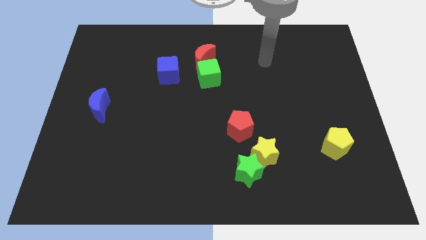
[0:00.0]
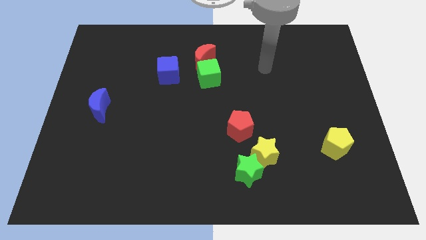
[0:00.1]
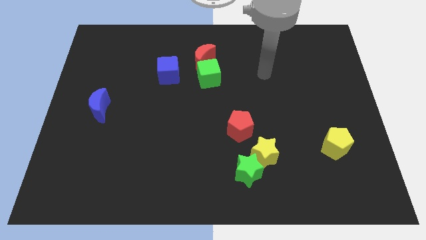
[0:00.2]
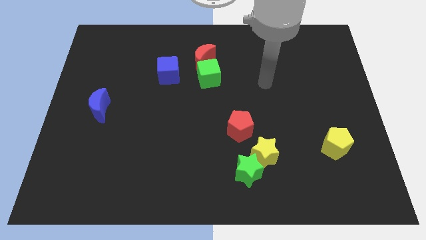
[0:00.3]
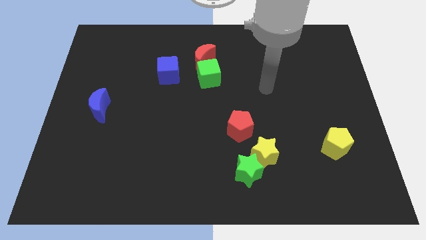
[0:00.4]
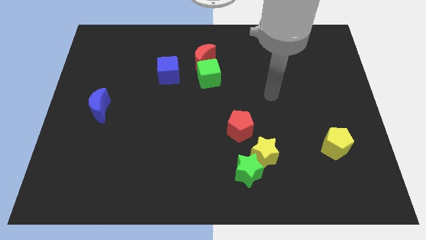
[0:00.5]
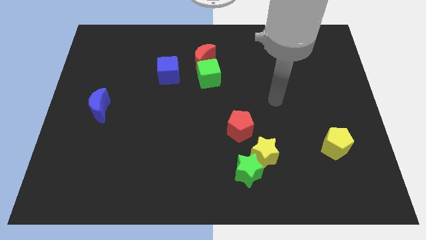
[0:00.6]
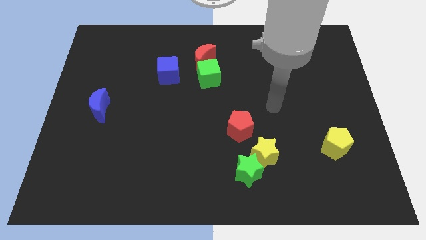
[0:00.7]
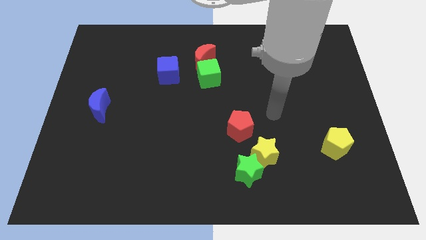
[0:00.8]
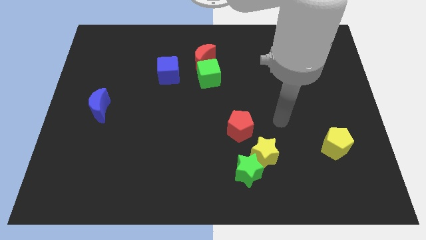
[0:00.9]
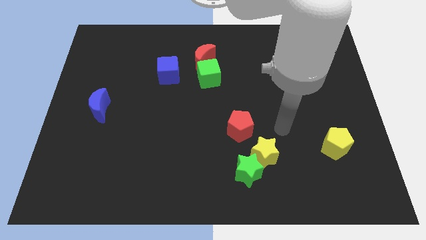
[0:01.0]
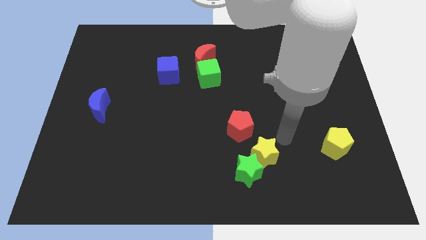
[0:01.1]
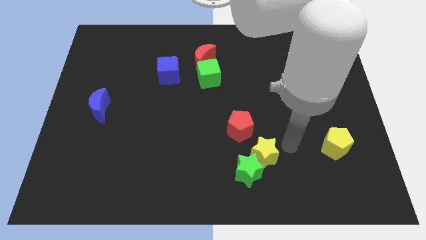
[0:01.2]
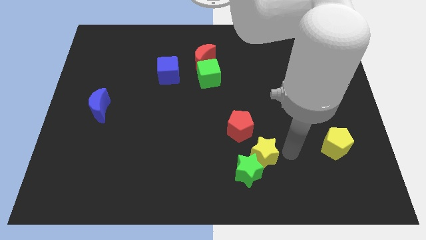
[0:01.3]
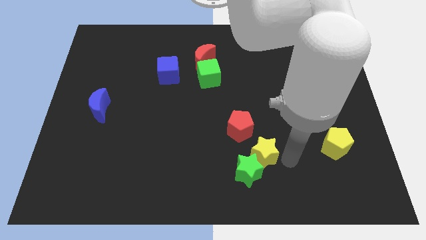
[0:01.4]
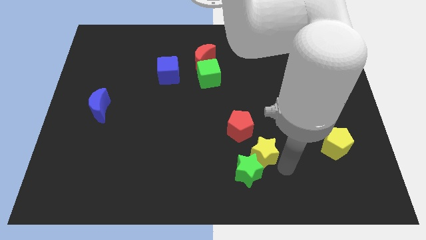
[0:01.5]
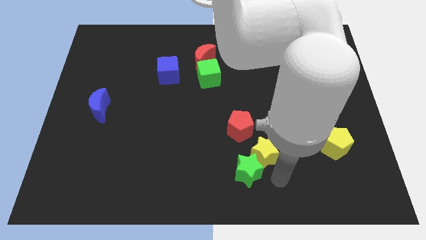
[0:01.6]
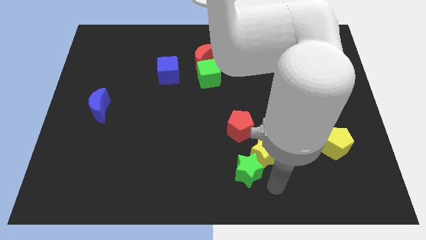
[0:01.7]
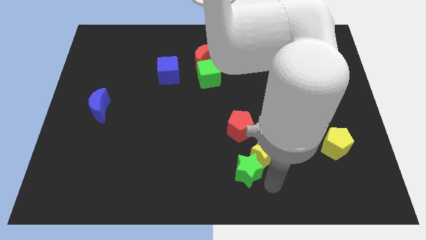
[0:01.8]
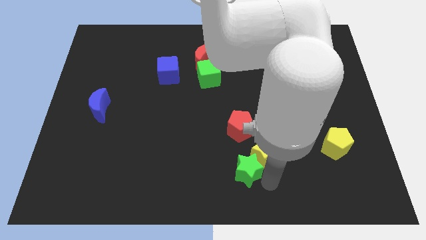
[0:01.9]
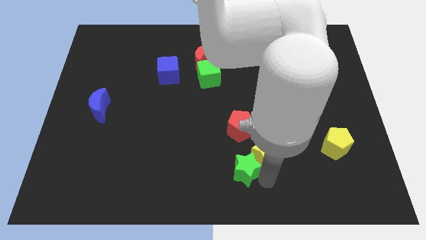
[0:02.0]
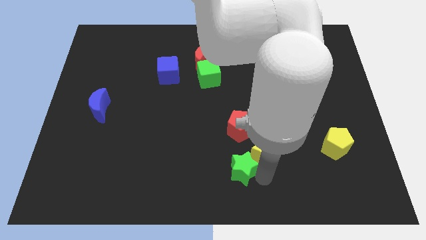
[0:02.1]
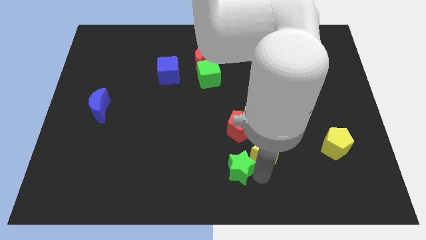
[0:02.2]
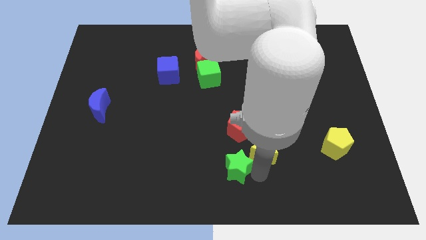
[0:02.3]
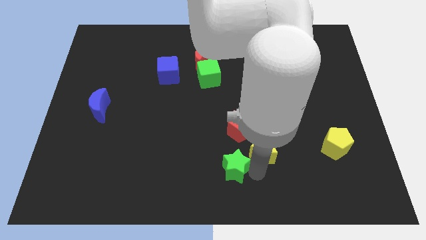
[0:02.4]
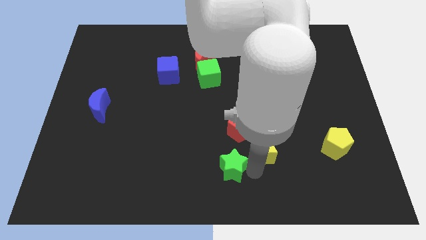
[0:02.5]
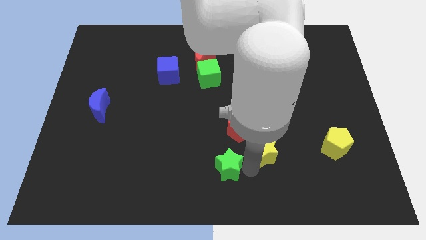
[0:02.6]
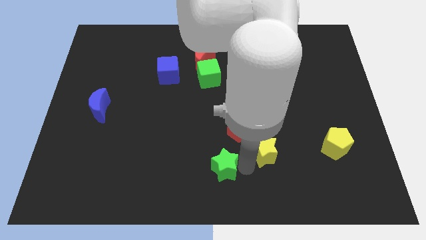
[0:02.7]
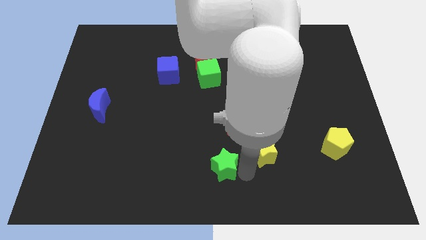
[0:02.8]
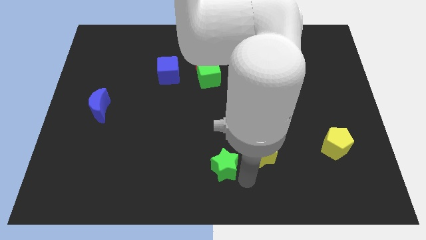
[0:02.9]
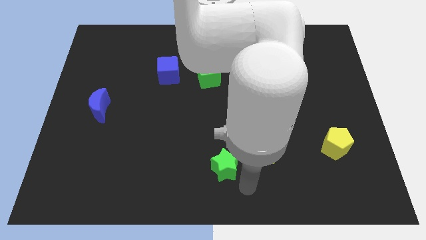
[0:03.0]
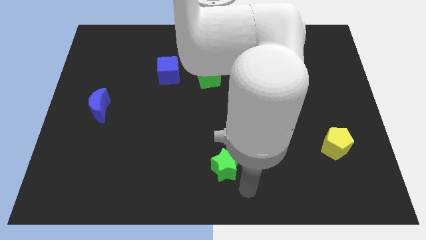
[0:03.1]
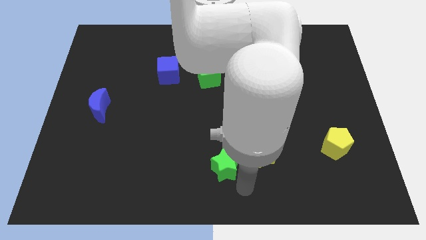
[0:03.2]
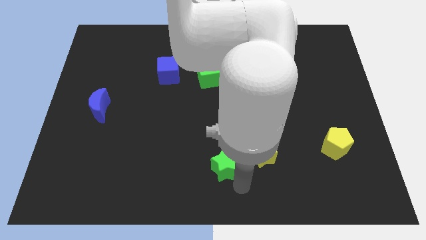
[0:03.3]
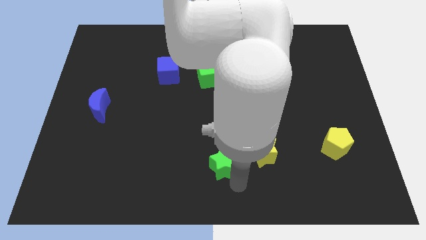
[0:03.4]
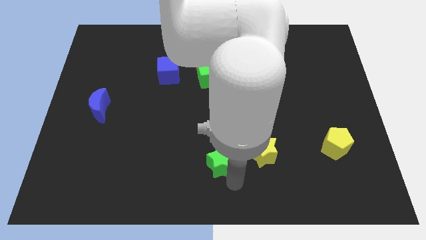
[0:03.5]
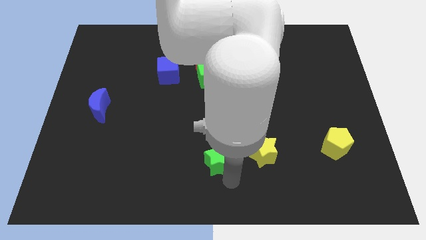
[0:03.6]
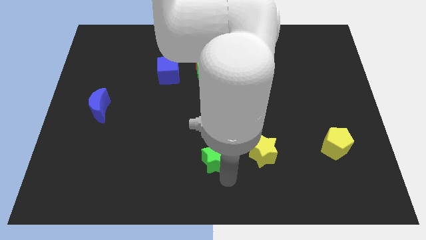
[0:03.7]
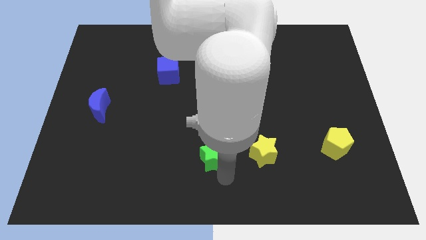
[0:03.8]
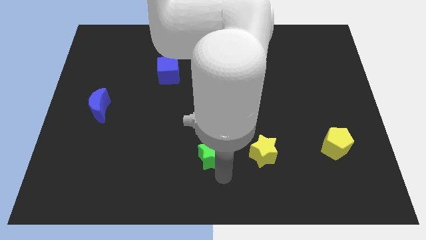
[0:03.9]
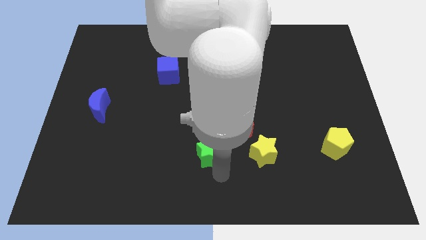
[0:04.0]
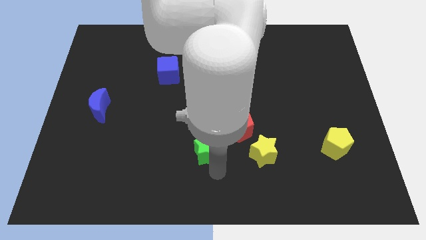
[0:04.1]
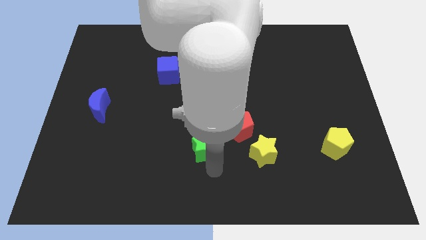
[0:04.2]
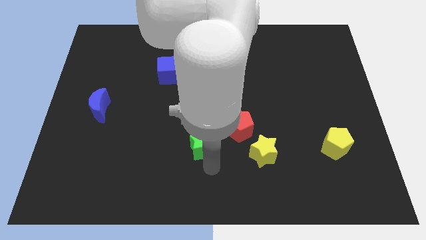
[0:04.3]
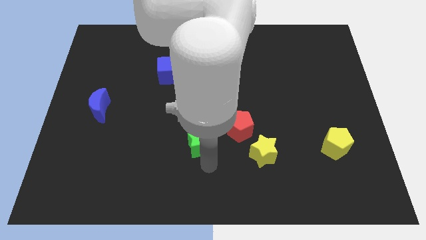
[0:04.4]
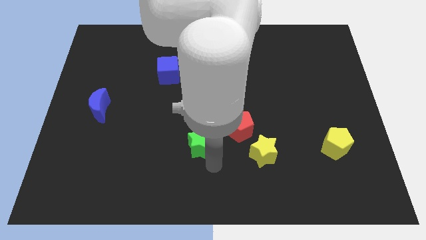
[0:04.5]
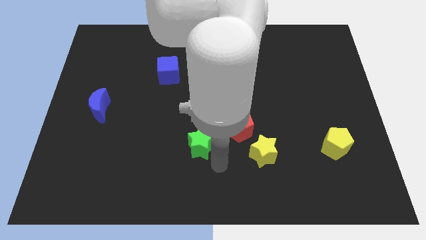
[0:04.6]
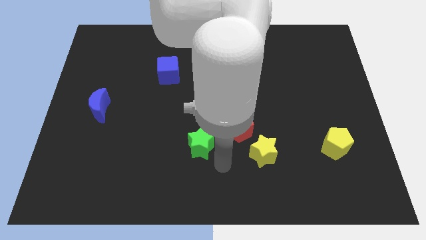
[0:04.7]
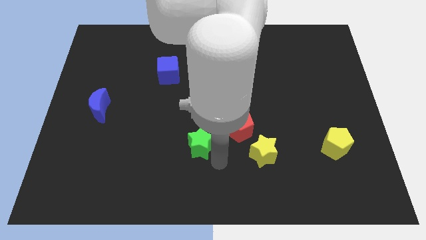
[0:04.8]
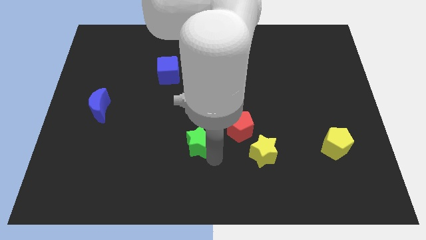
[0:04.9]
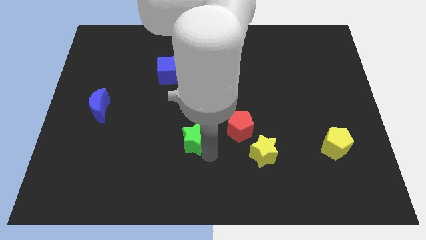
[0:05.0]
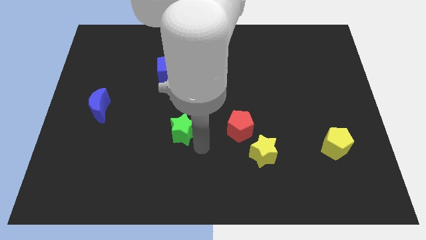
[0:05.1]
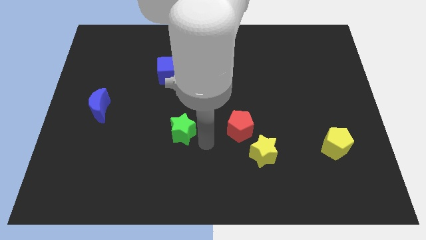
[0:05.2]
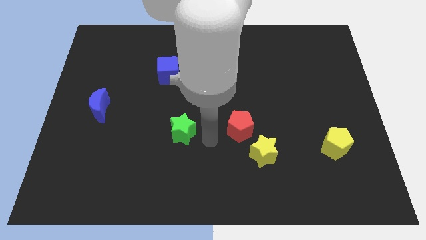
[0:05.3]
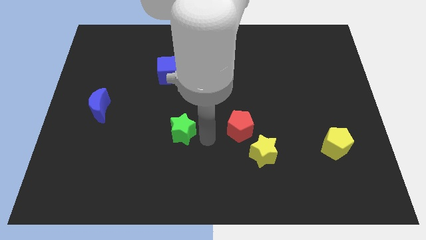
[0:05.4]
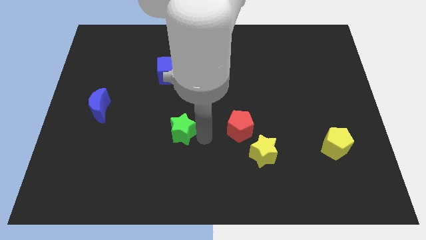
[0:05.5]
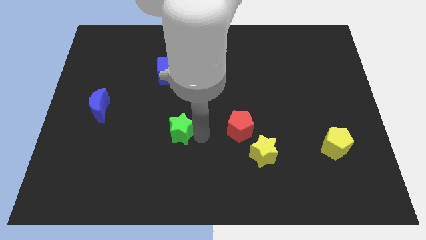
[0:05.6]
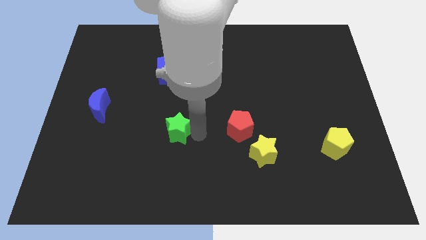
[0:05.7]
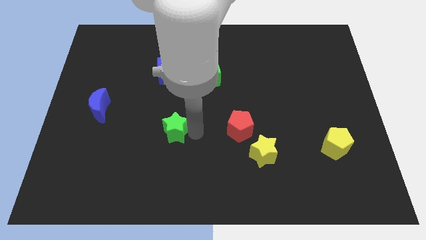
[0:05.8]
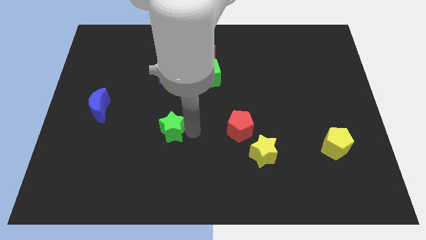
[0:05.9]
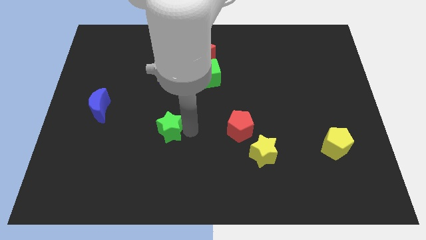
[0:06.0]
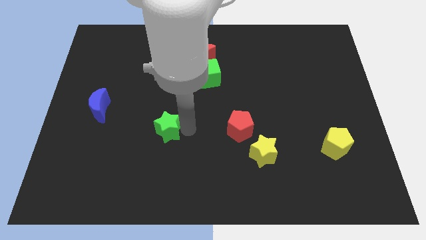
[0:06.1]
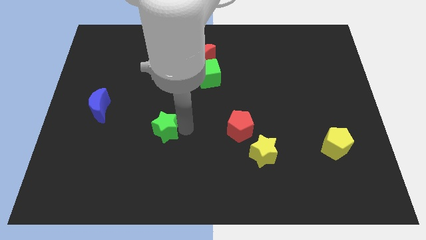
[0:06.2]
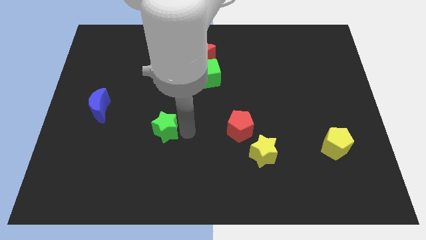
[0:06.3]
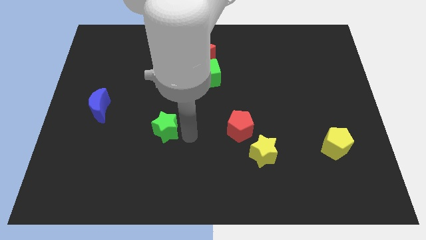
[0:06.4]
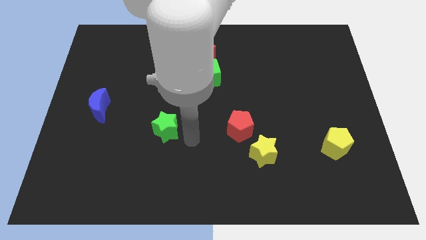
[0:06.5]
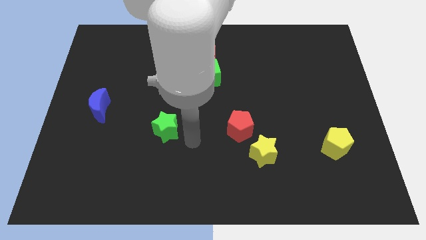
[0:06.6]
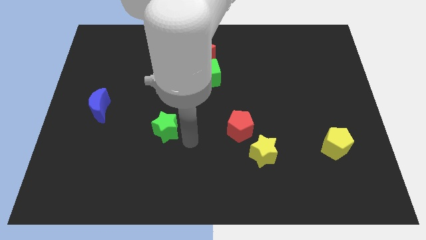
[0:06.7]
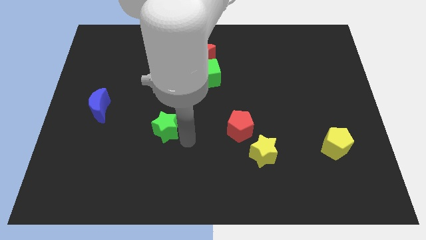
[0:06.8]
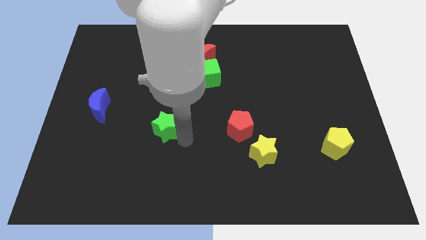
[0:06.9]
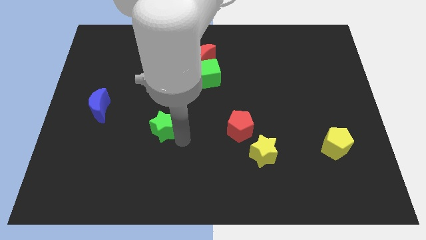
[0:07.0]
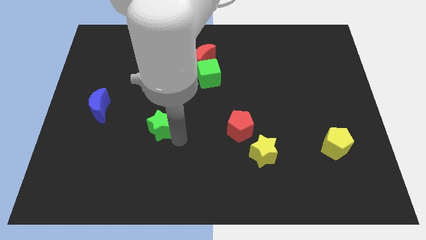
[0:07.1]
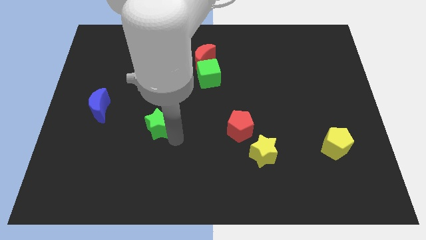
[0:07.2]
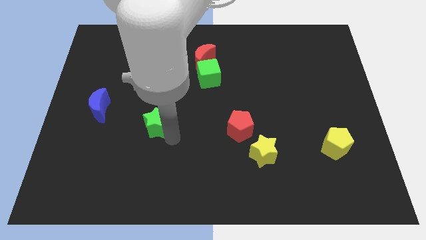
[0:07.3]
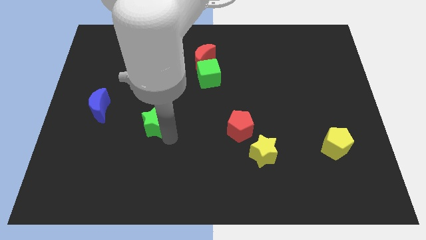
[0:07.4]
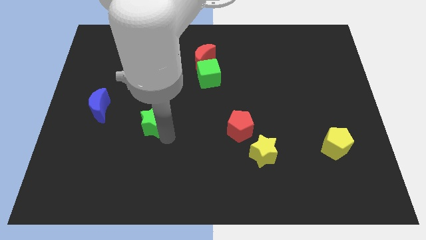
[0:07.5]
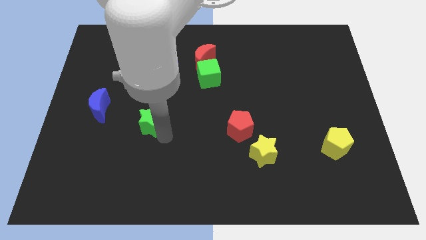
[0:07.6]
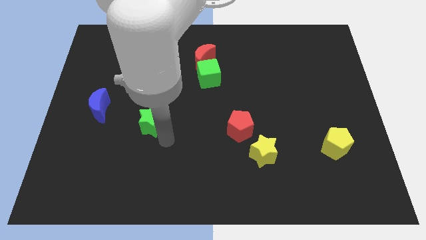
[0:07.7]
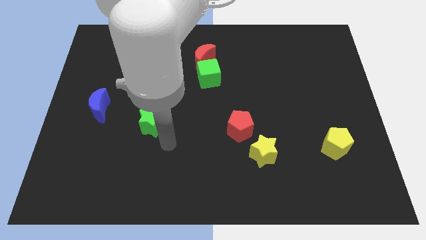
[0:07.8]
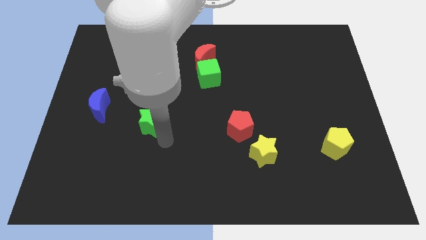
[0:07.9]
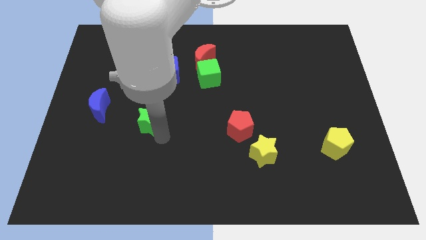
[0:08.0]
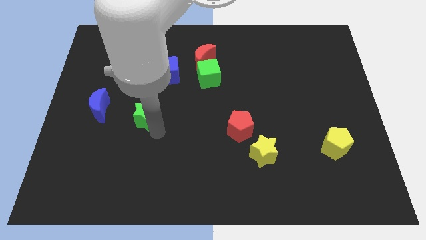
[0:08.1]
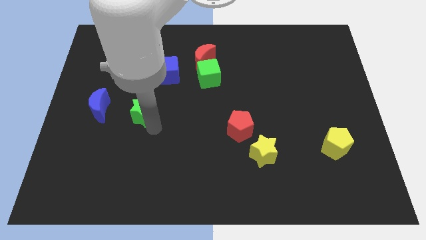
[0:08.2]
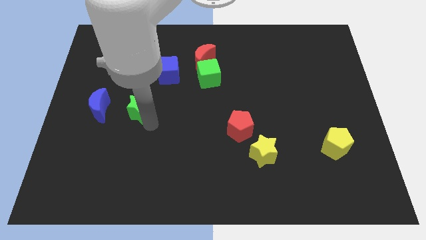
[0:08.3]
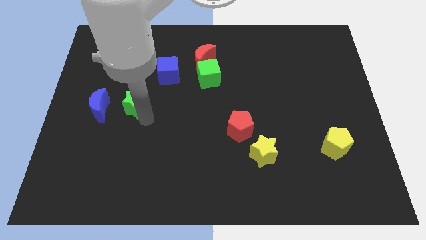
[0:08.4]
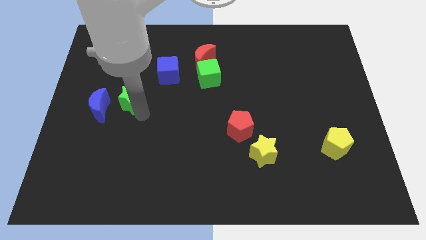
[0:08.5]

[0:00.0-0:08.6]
move the green star to the top right of the blue moon
